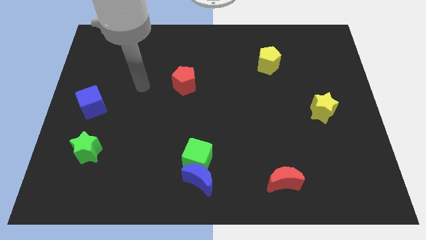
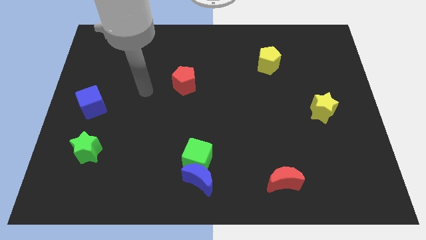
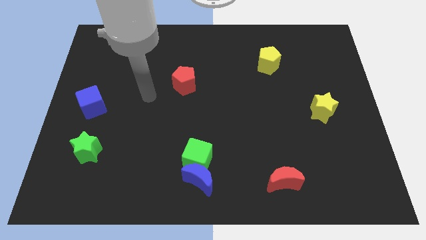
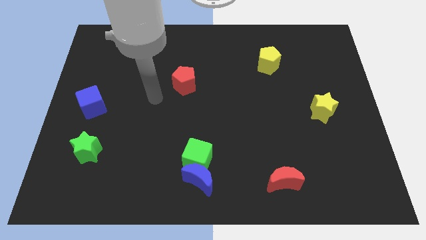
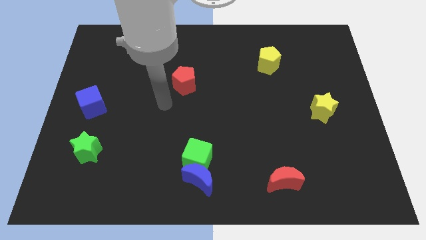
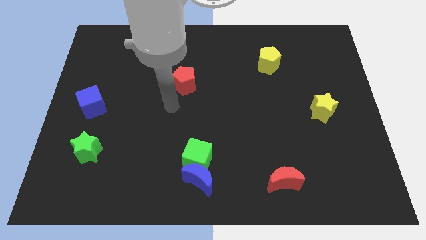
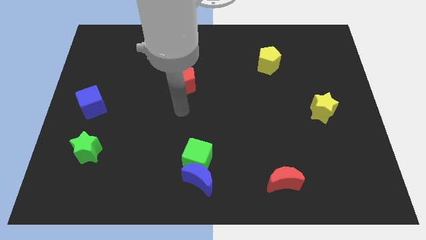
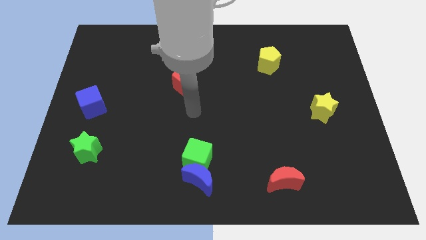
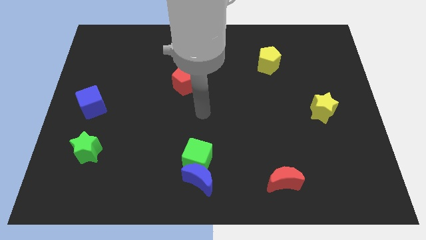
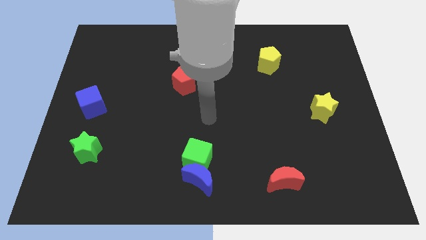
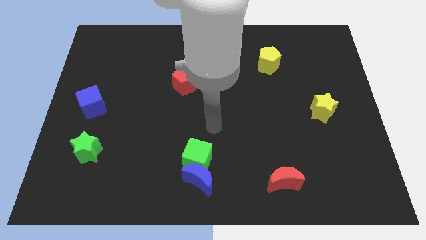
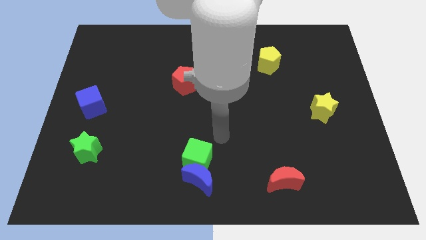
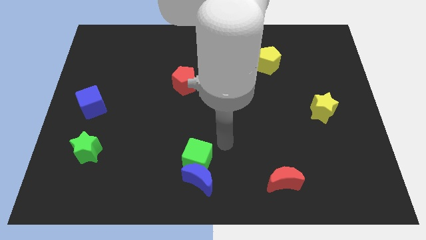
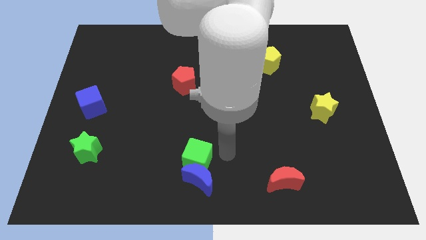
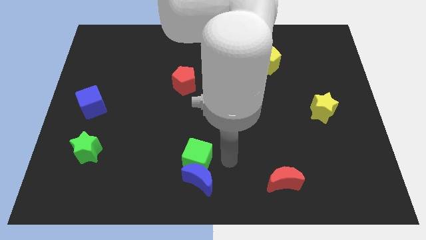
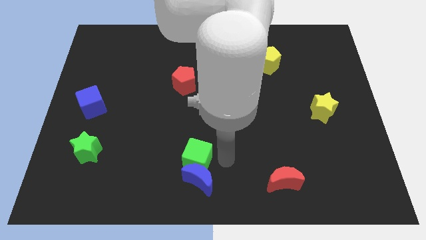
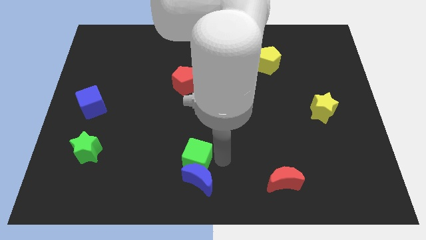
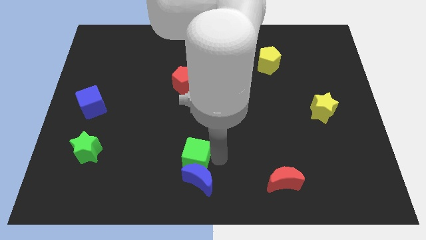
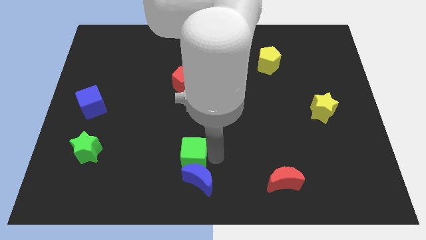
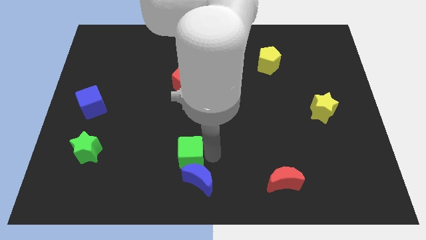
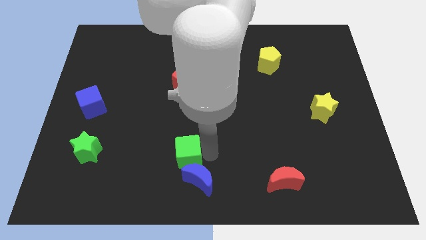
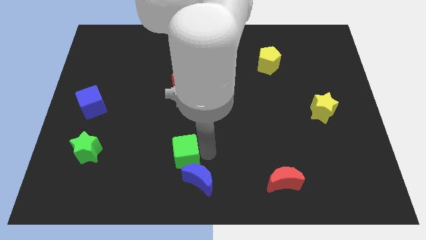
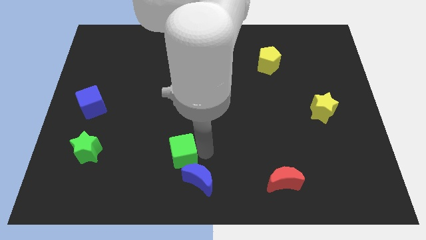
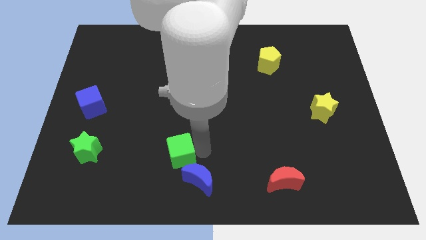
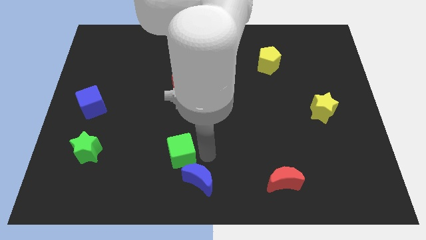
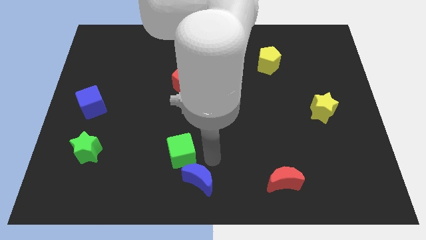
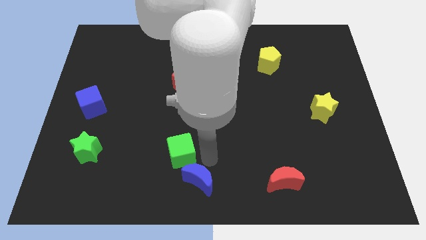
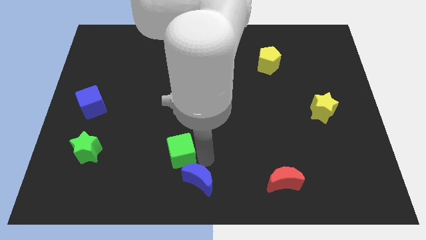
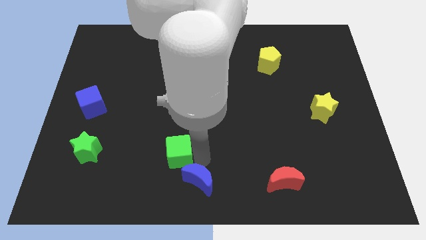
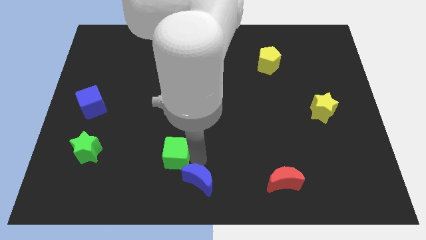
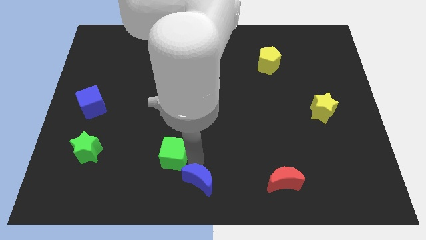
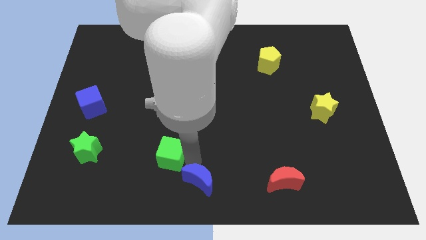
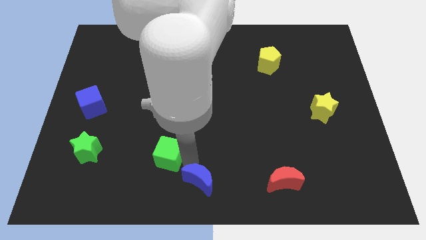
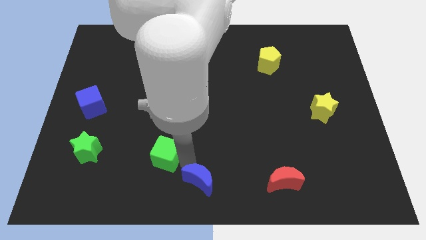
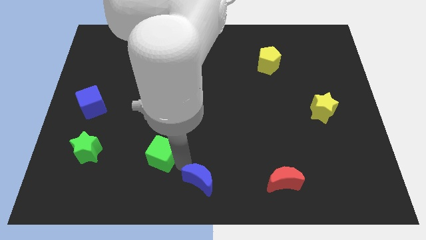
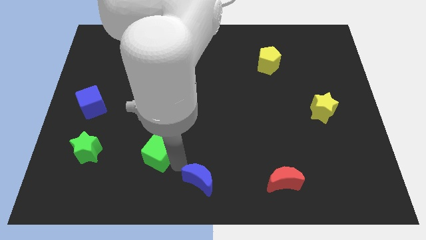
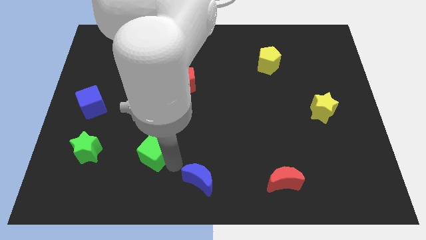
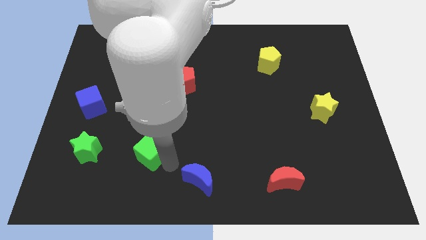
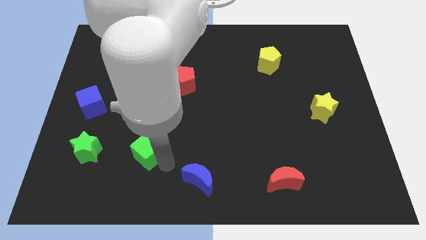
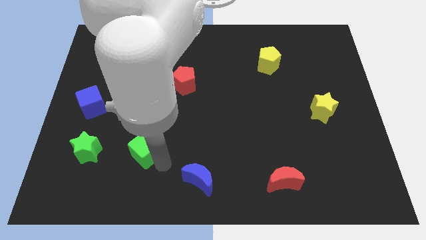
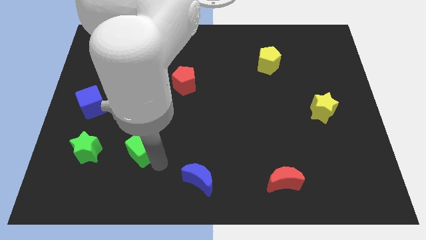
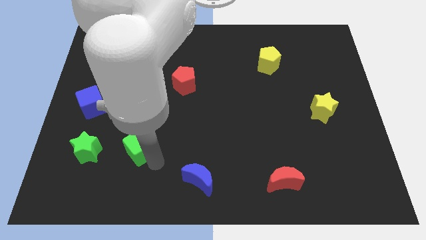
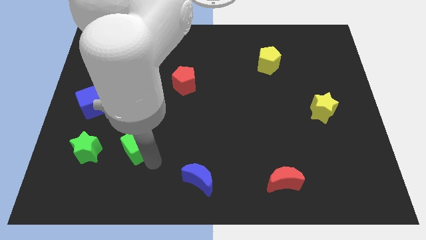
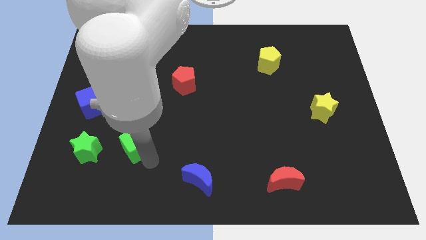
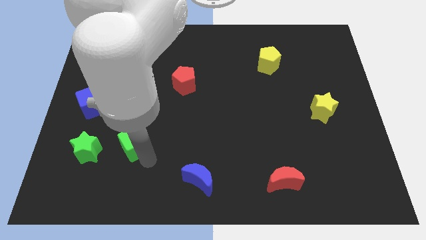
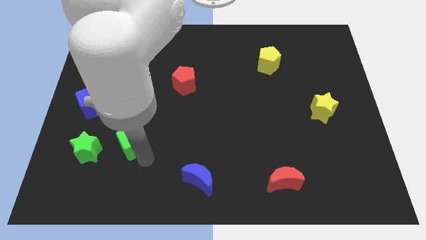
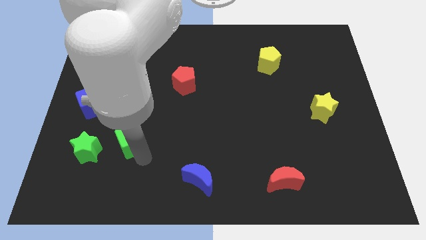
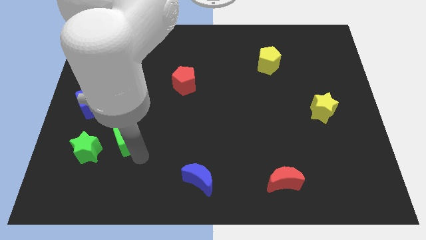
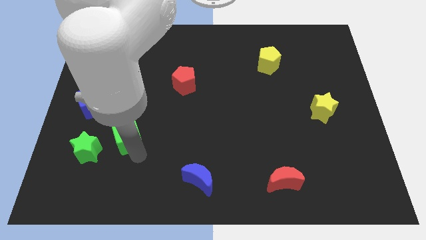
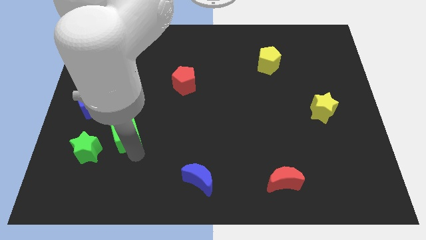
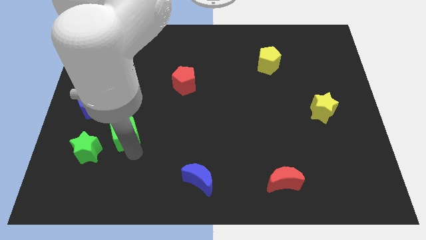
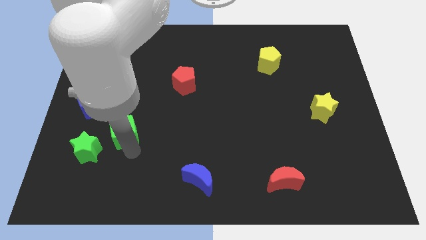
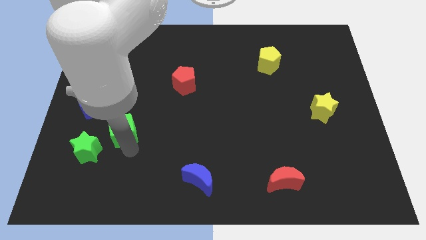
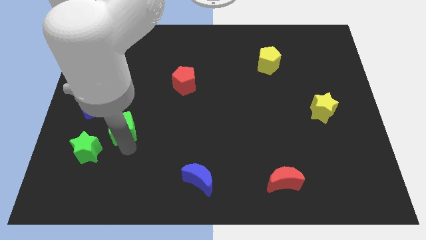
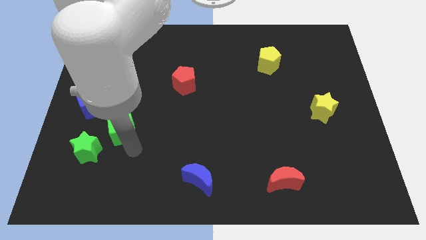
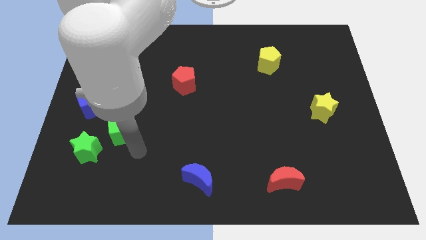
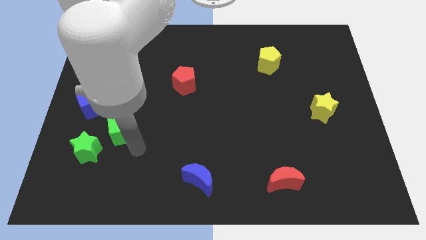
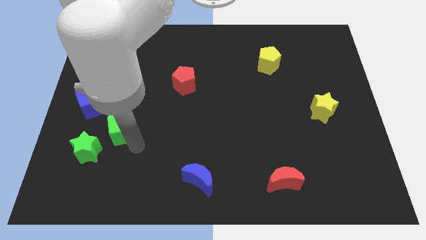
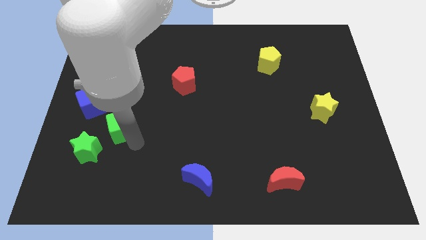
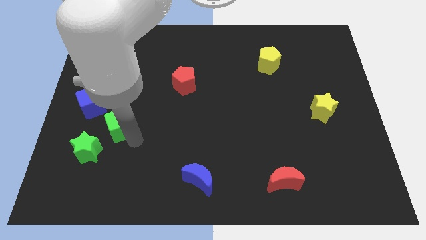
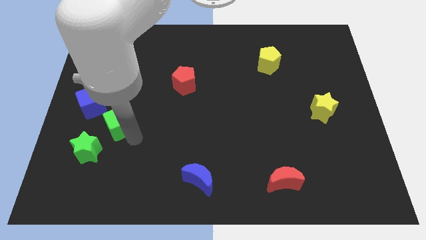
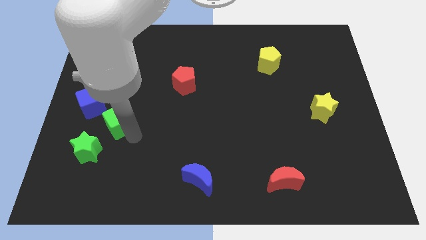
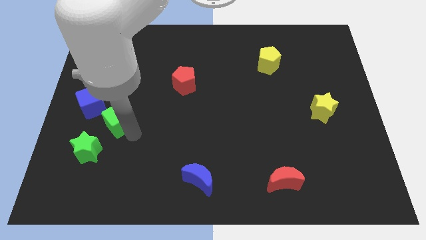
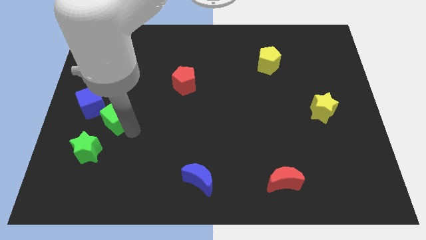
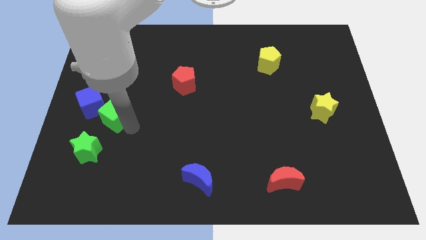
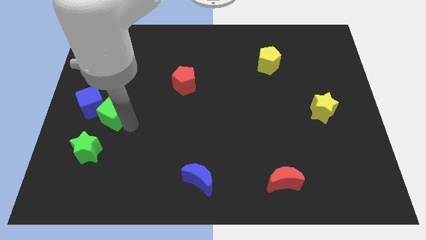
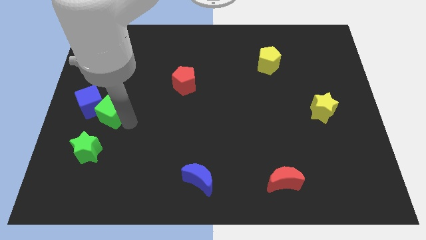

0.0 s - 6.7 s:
put the green cube to the blue cube

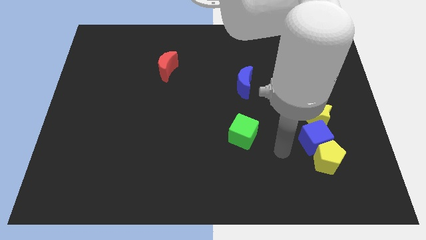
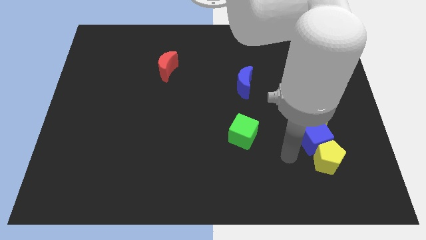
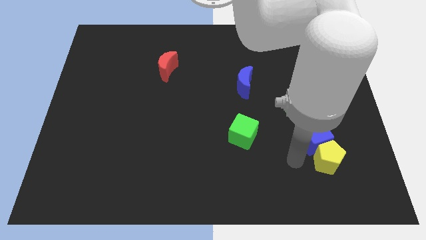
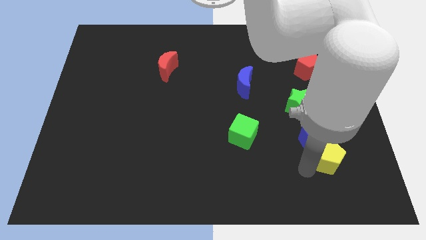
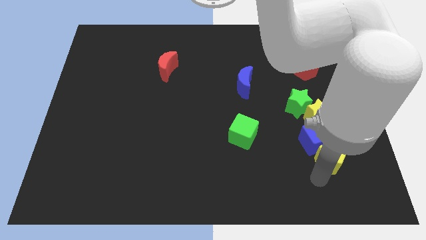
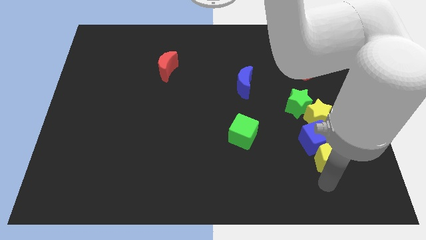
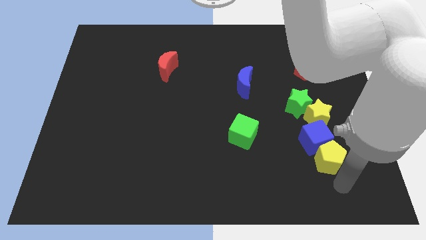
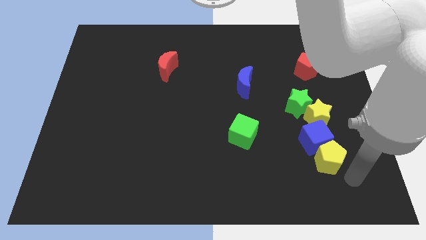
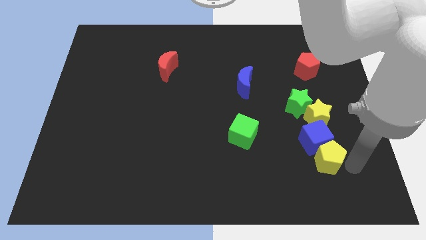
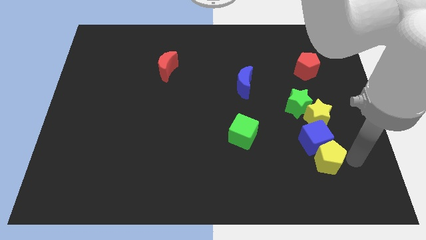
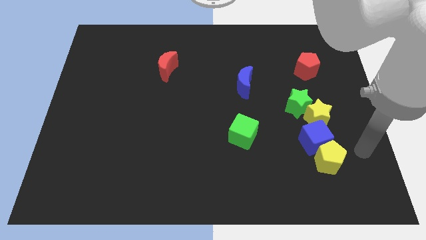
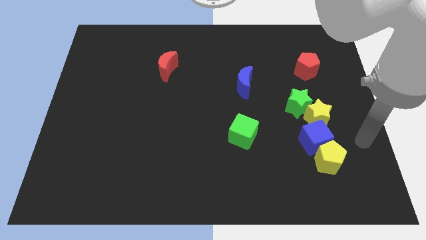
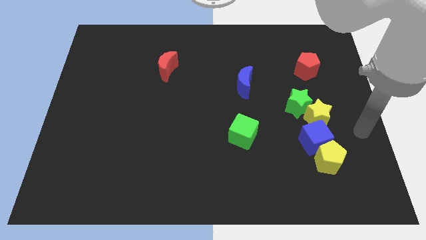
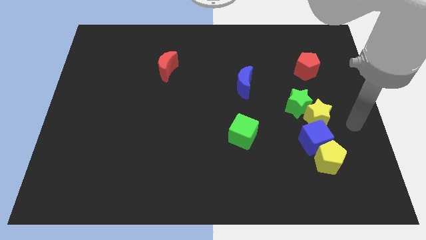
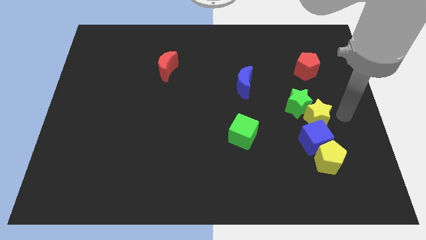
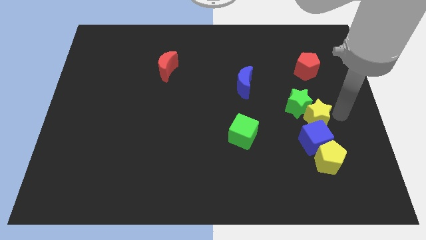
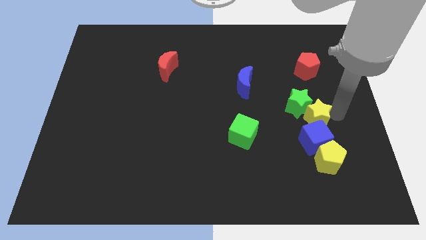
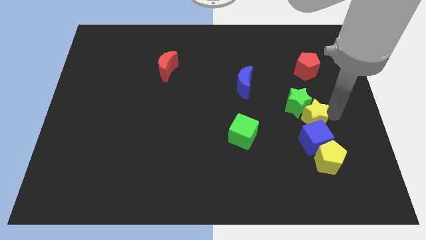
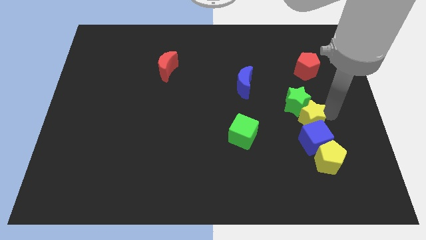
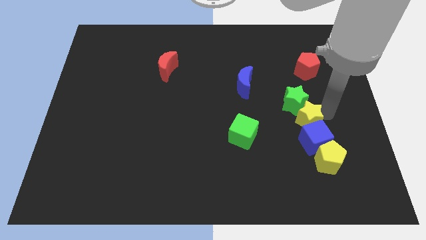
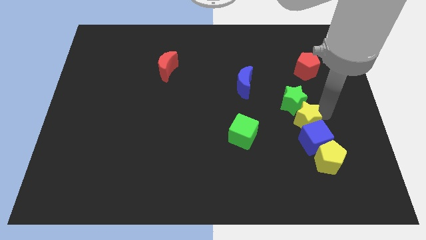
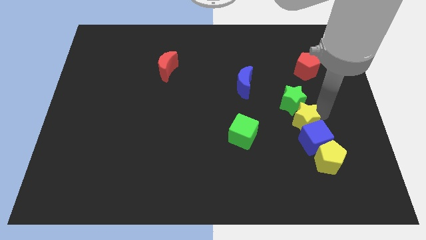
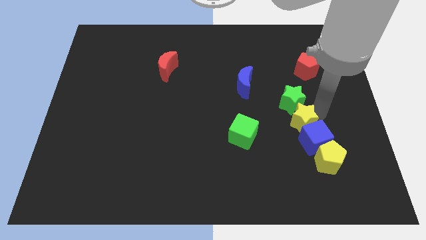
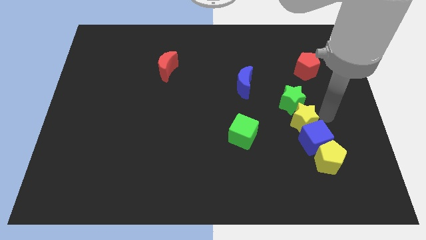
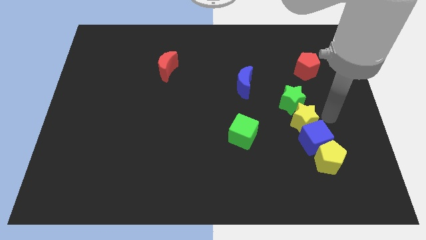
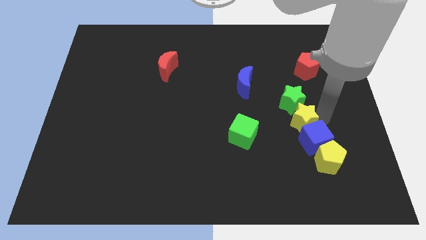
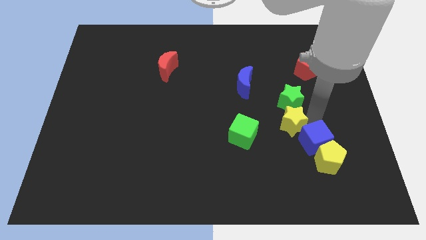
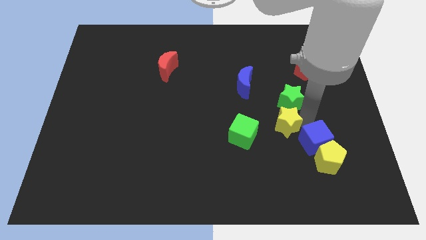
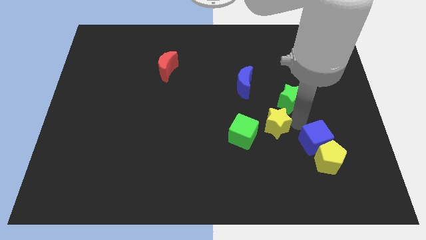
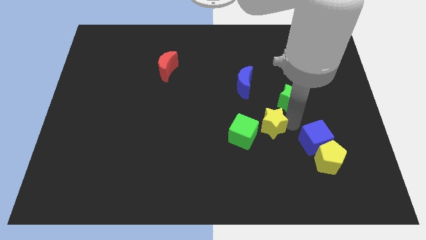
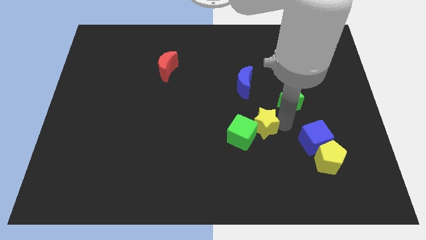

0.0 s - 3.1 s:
slide the yellow star to the green cube
